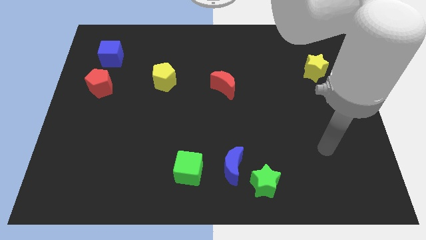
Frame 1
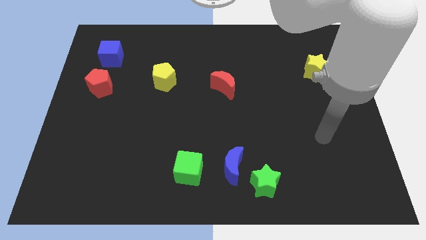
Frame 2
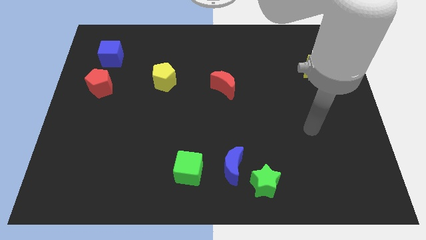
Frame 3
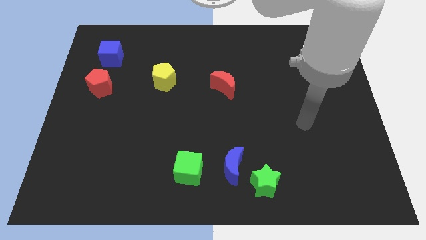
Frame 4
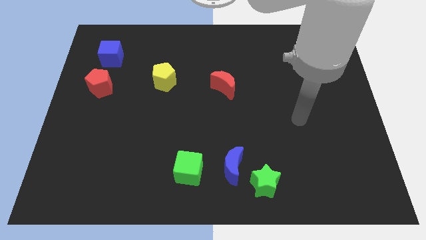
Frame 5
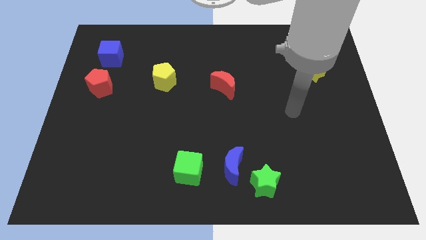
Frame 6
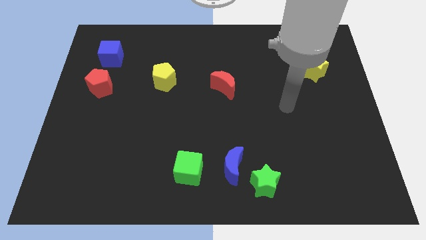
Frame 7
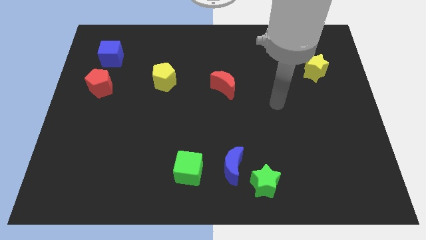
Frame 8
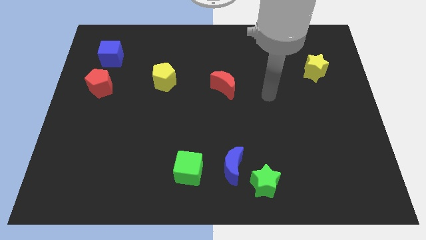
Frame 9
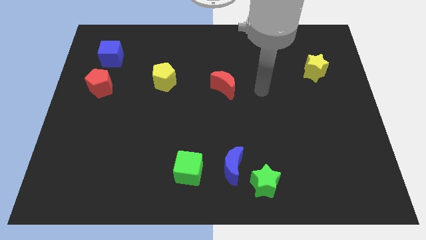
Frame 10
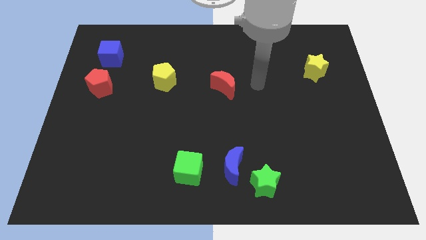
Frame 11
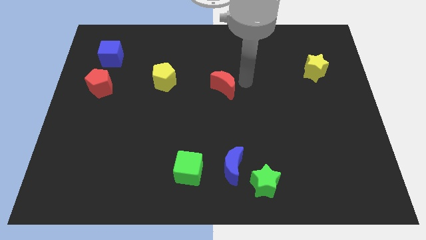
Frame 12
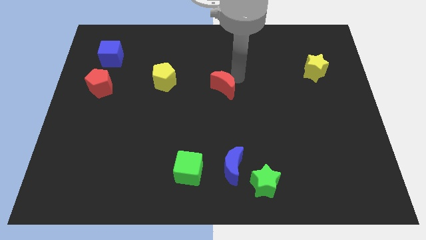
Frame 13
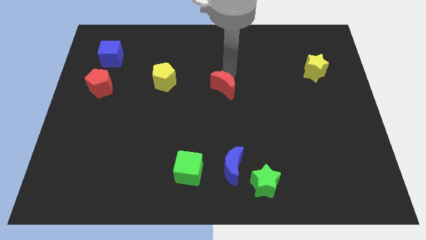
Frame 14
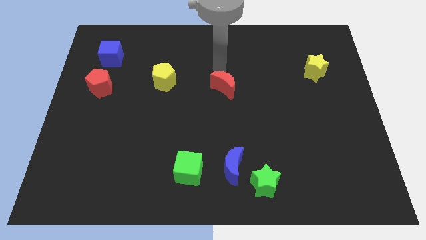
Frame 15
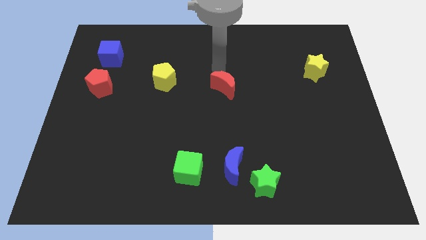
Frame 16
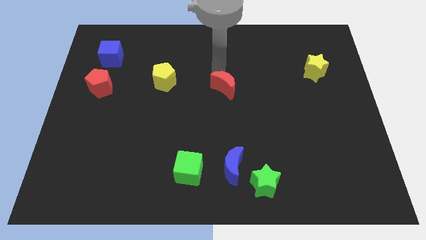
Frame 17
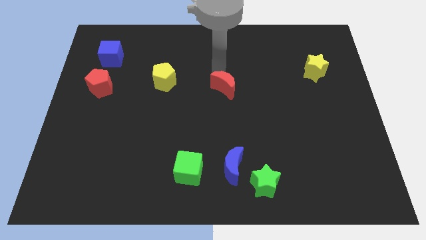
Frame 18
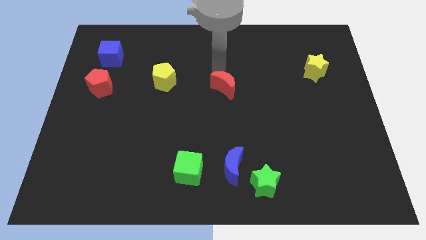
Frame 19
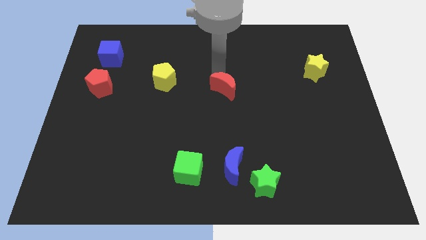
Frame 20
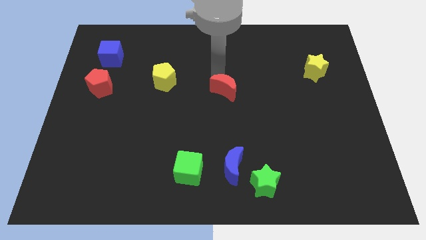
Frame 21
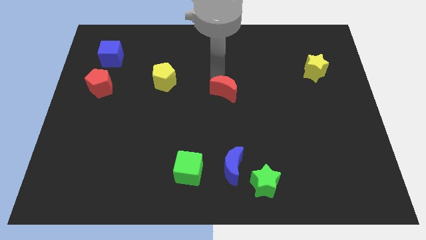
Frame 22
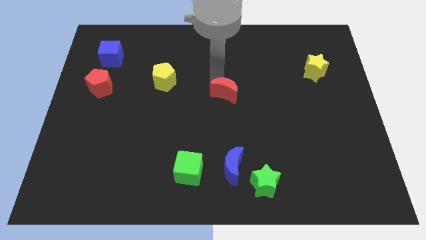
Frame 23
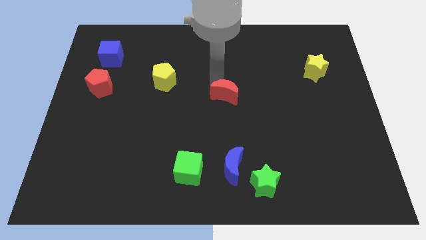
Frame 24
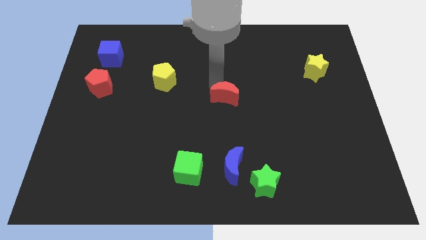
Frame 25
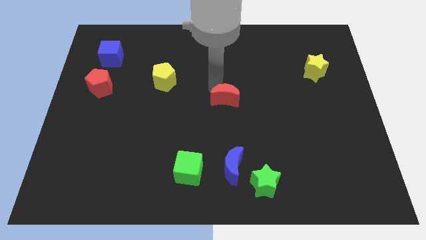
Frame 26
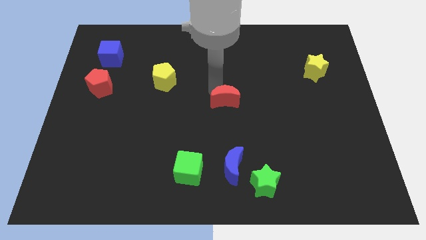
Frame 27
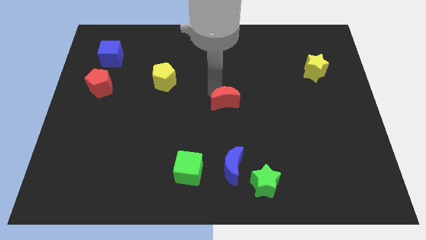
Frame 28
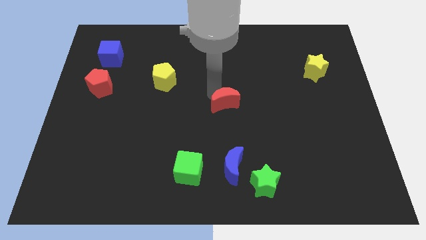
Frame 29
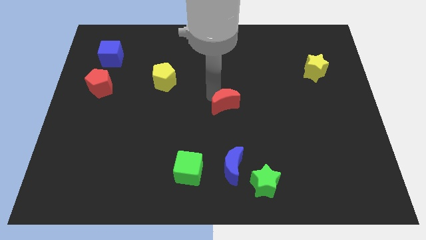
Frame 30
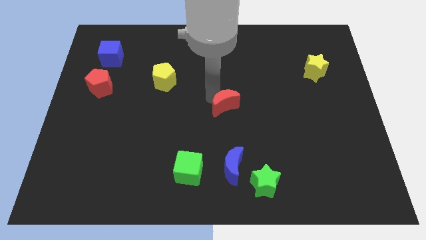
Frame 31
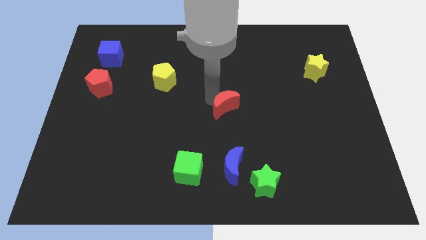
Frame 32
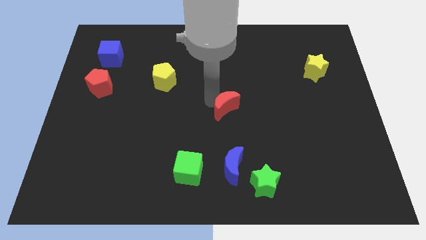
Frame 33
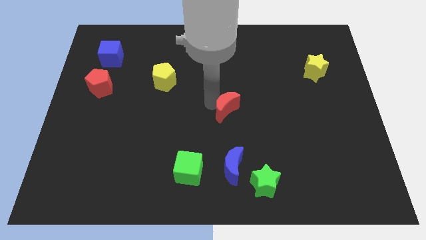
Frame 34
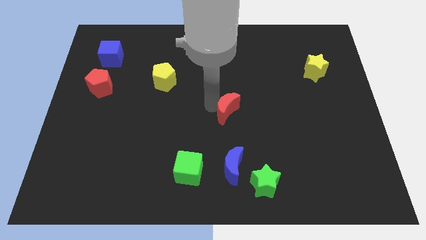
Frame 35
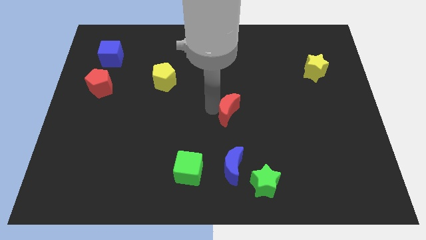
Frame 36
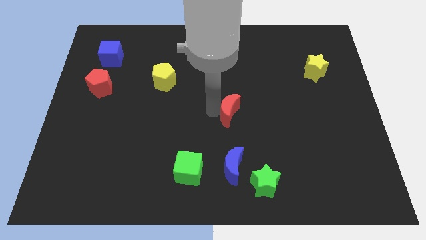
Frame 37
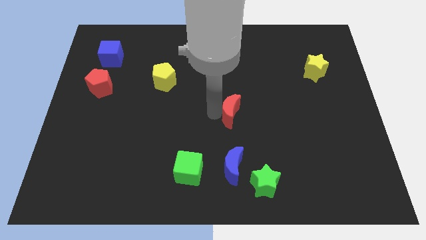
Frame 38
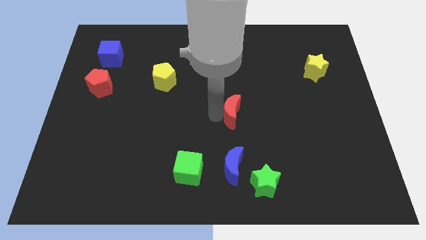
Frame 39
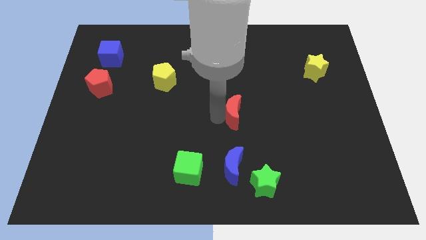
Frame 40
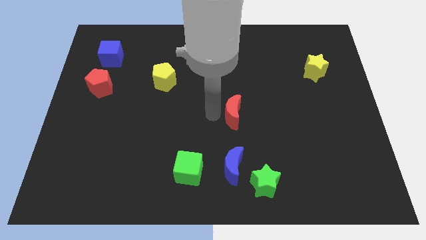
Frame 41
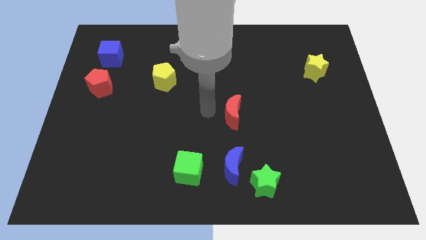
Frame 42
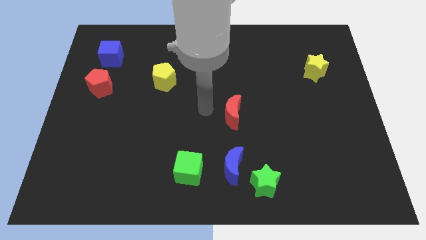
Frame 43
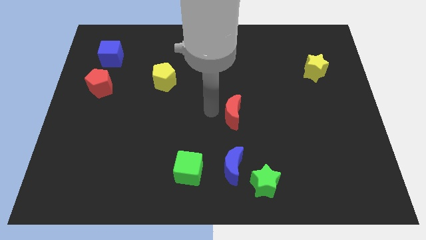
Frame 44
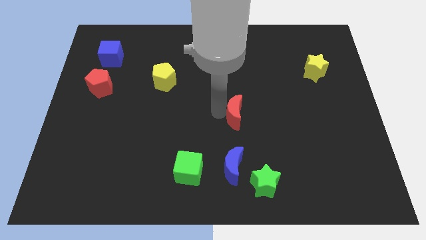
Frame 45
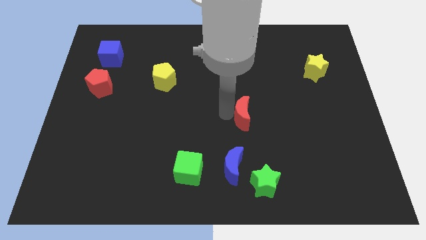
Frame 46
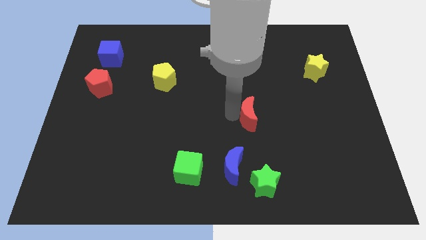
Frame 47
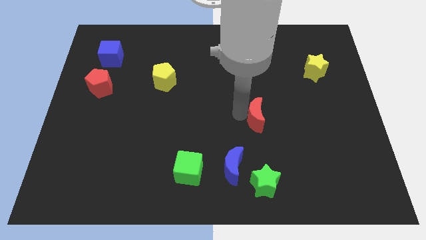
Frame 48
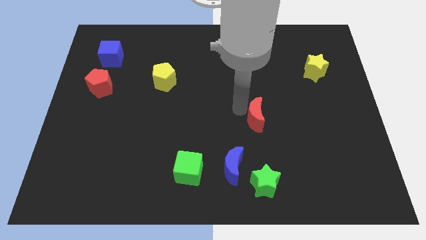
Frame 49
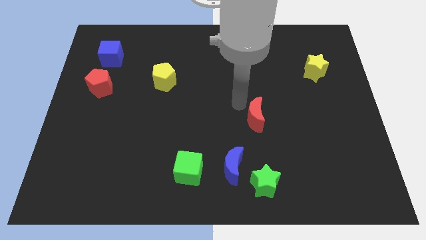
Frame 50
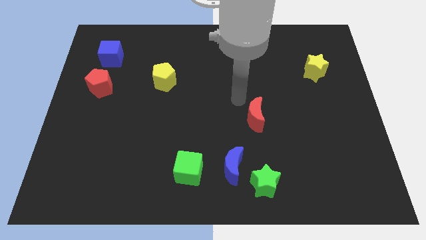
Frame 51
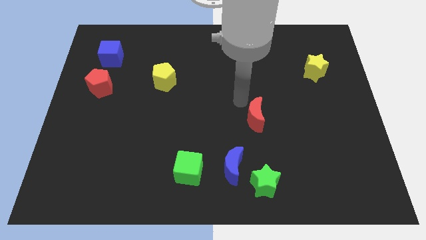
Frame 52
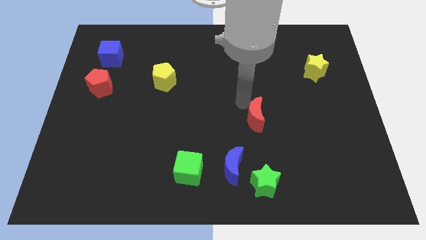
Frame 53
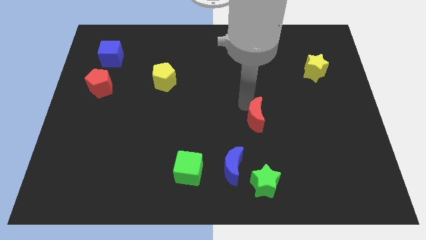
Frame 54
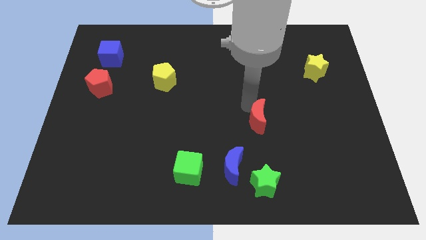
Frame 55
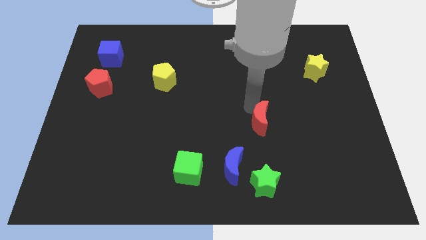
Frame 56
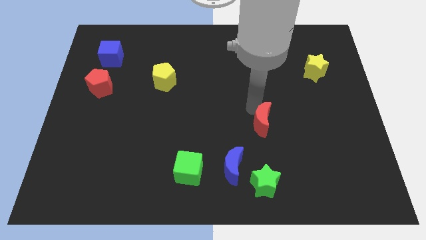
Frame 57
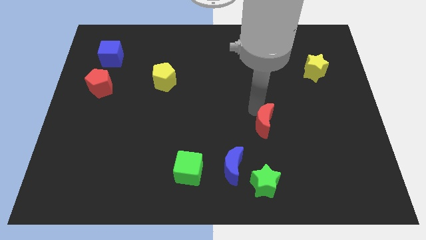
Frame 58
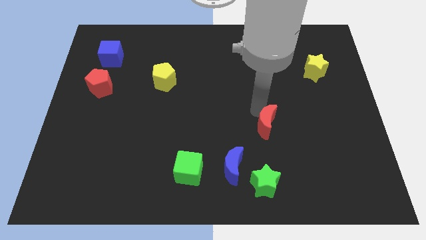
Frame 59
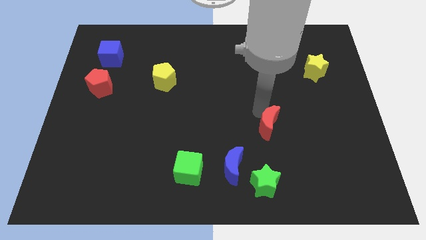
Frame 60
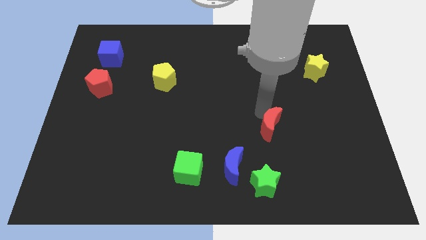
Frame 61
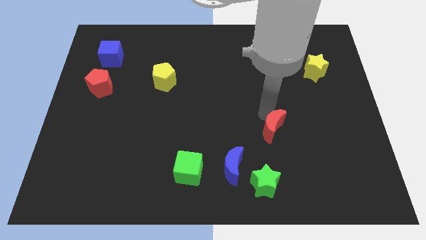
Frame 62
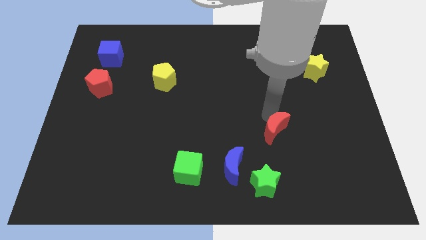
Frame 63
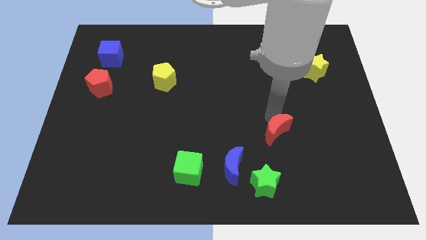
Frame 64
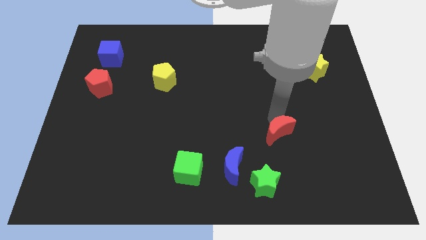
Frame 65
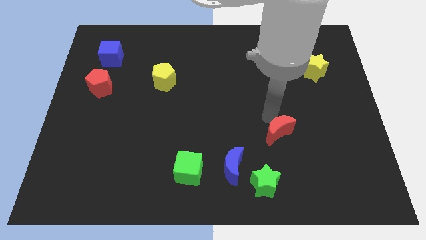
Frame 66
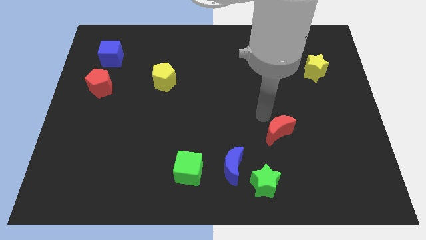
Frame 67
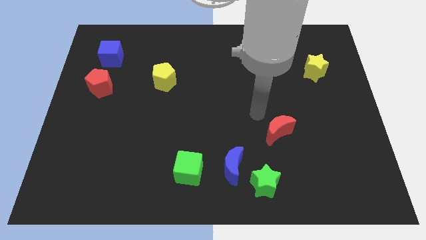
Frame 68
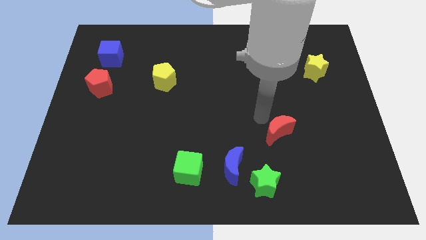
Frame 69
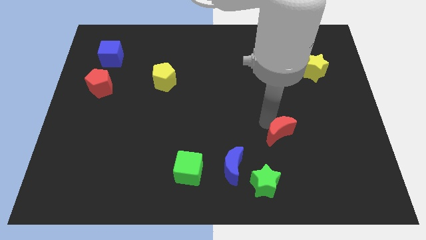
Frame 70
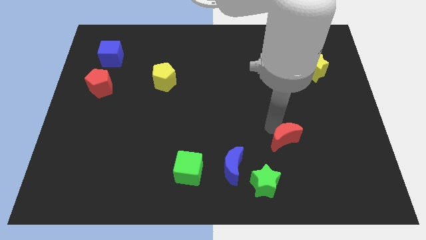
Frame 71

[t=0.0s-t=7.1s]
slide the red moon diagonally downwards and right

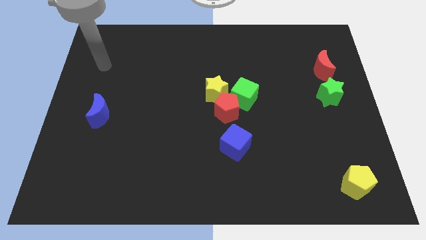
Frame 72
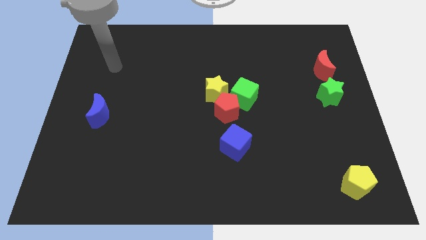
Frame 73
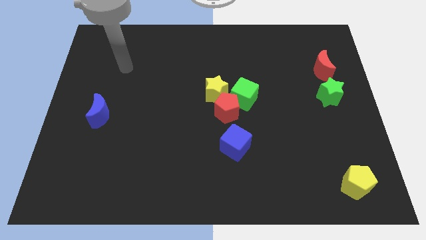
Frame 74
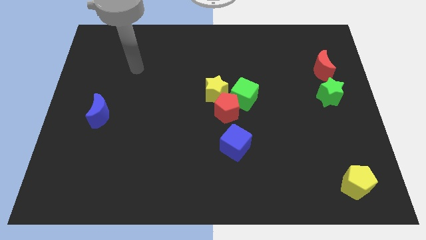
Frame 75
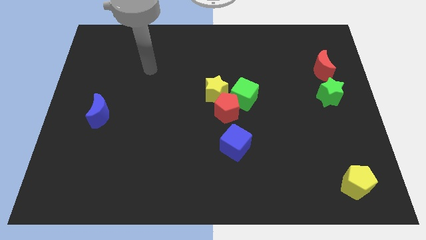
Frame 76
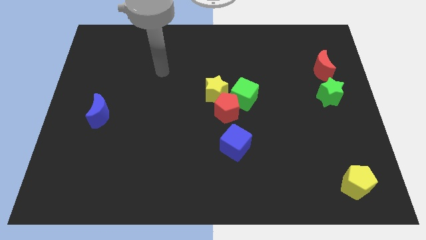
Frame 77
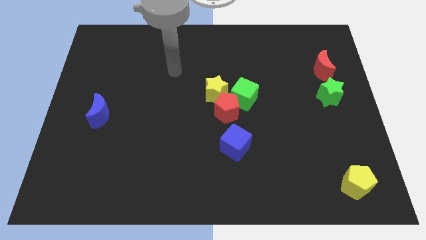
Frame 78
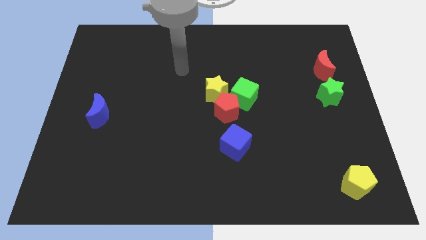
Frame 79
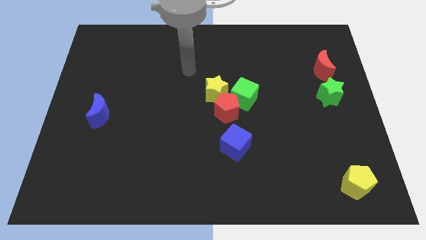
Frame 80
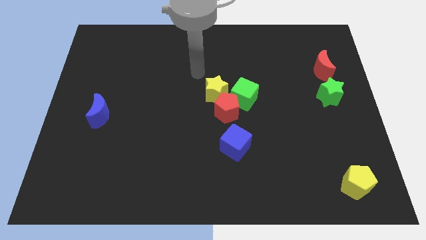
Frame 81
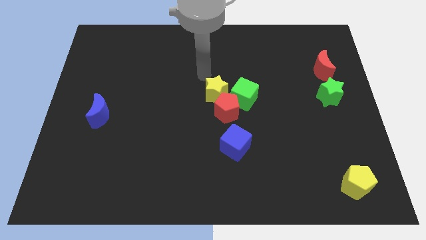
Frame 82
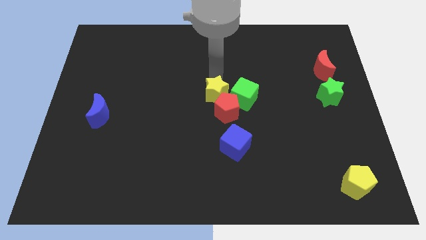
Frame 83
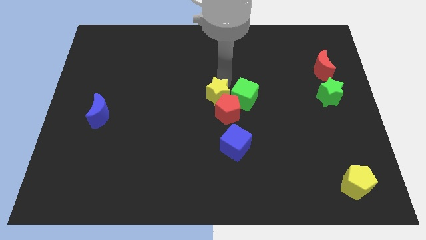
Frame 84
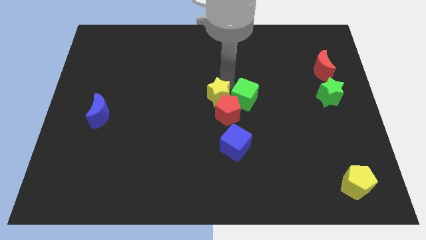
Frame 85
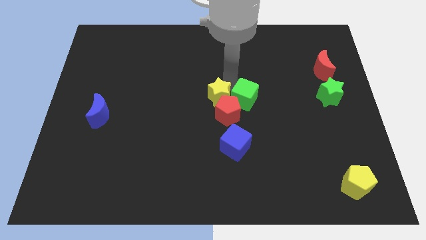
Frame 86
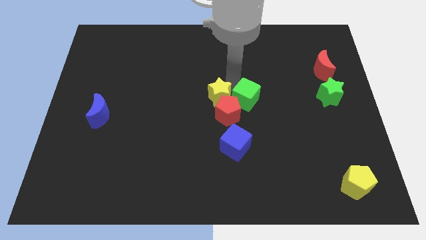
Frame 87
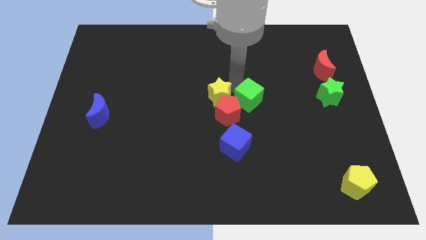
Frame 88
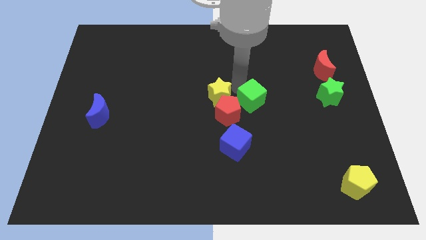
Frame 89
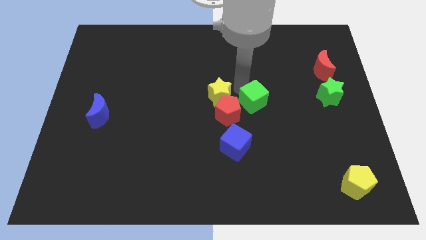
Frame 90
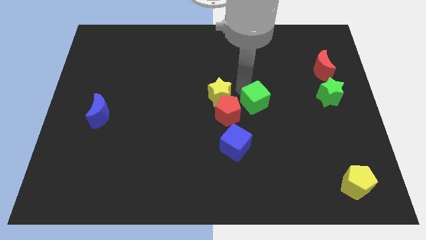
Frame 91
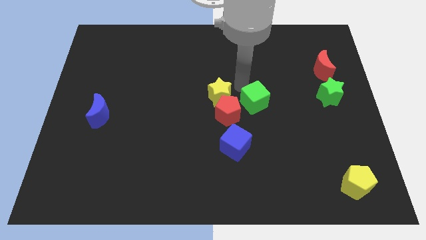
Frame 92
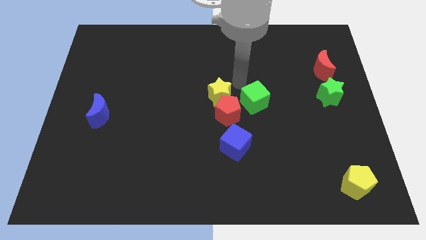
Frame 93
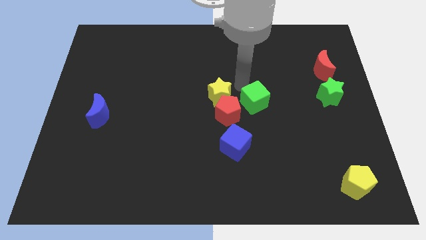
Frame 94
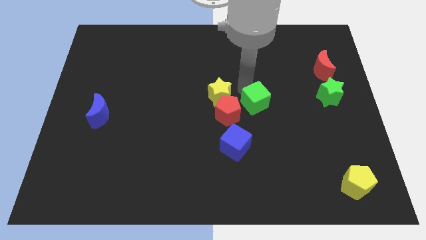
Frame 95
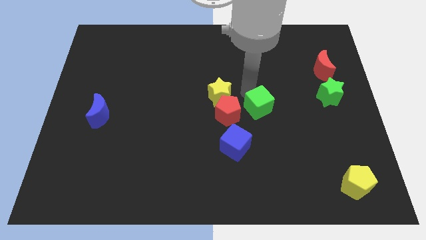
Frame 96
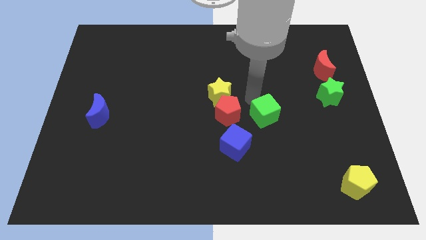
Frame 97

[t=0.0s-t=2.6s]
slide the green cube down and right diagonally a bit
